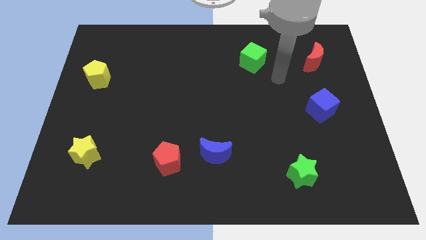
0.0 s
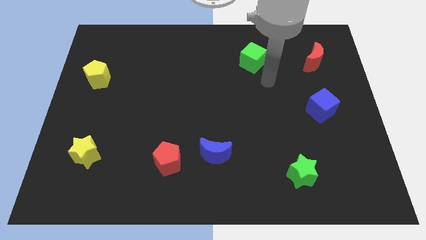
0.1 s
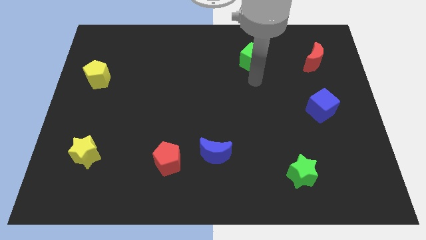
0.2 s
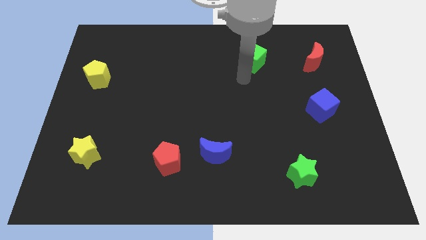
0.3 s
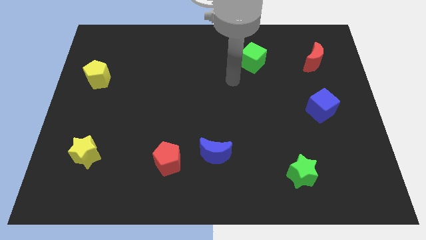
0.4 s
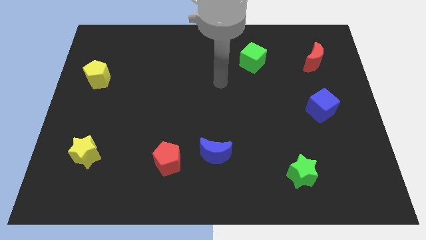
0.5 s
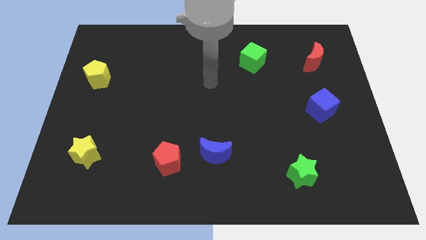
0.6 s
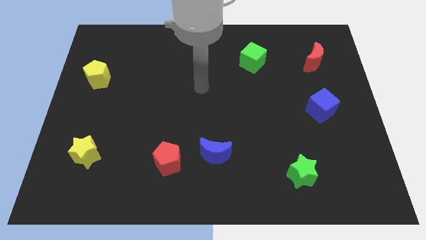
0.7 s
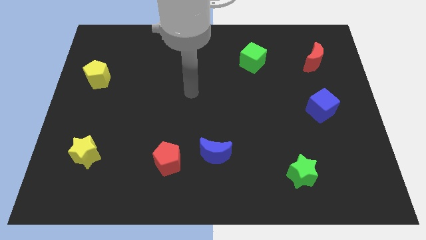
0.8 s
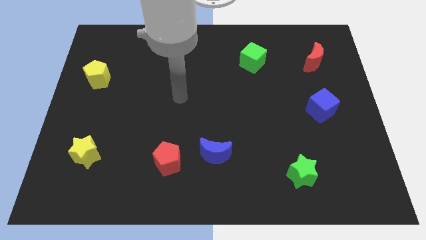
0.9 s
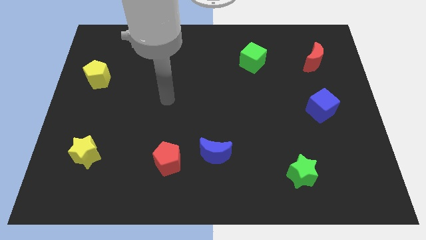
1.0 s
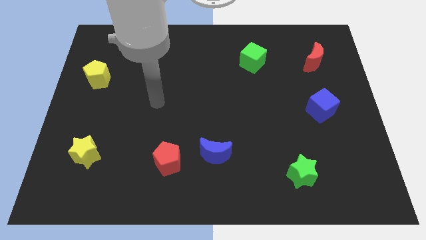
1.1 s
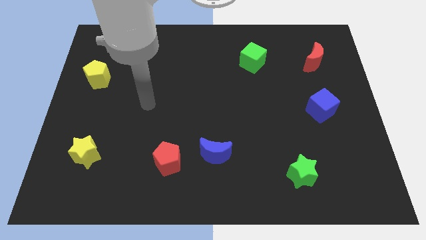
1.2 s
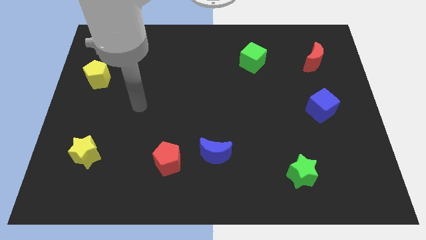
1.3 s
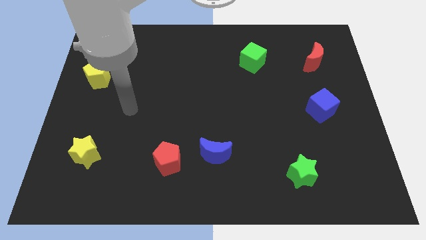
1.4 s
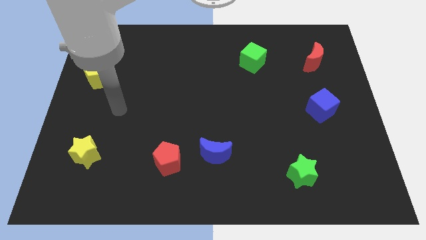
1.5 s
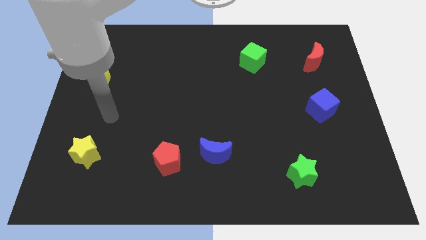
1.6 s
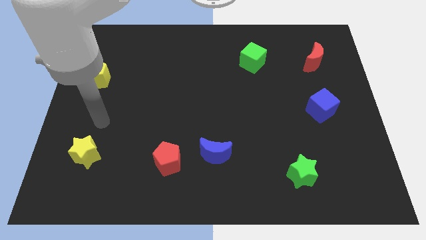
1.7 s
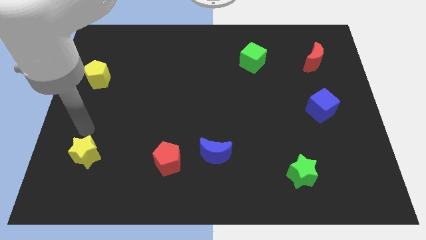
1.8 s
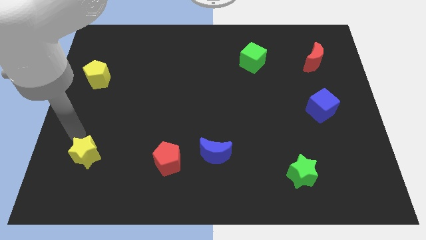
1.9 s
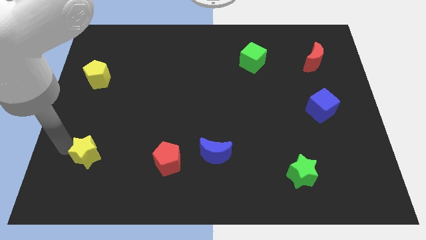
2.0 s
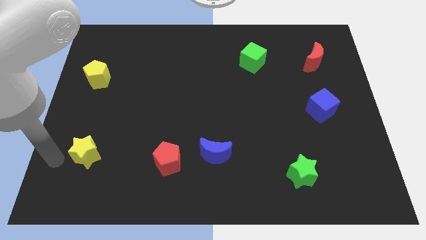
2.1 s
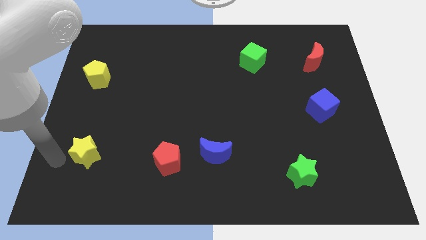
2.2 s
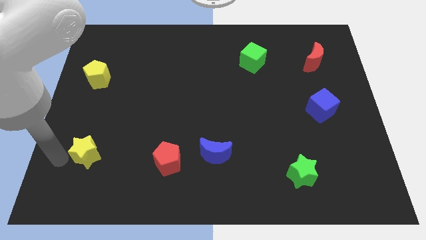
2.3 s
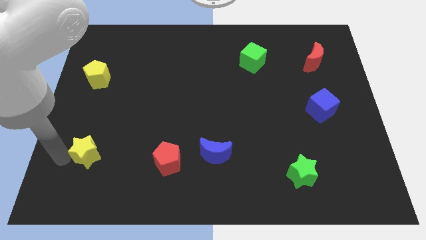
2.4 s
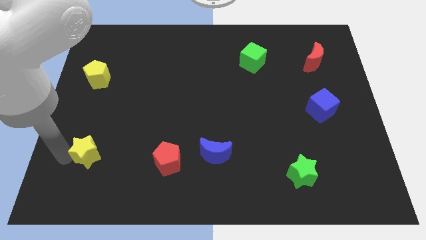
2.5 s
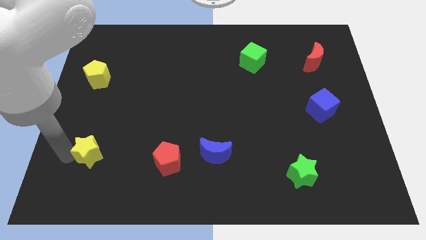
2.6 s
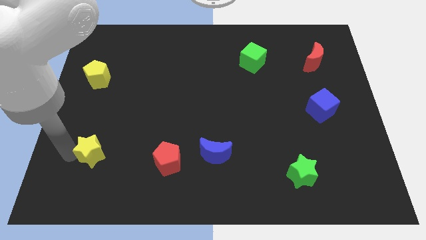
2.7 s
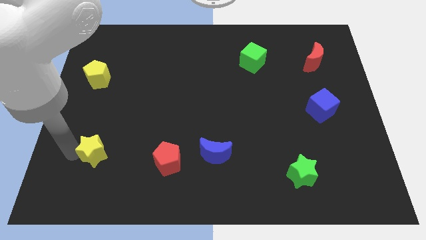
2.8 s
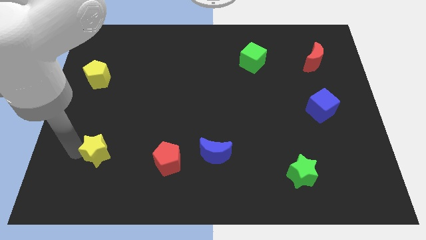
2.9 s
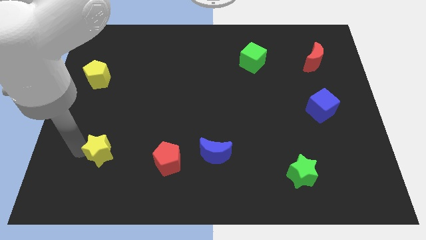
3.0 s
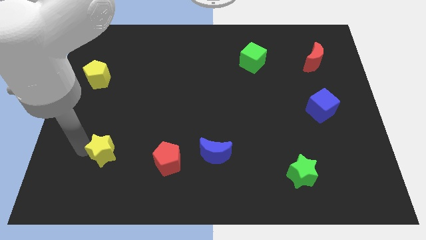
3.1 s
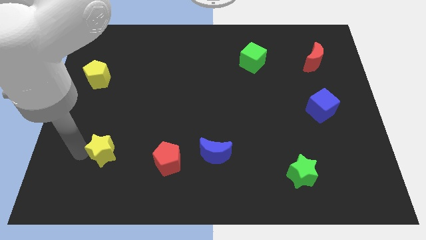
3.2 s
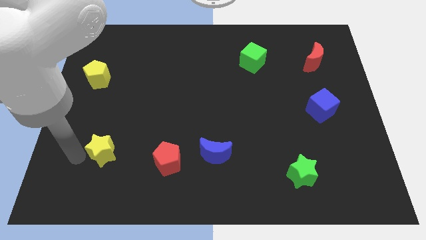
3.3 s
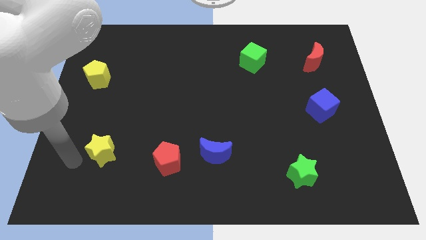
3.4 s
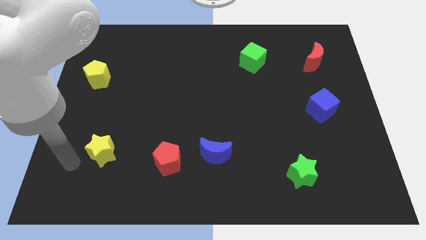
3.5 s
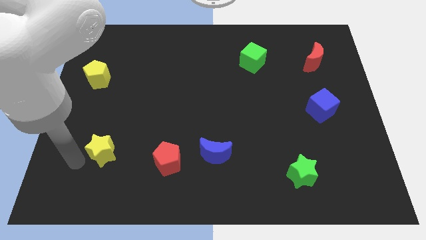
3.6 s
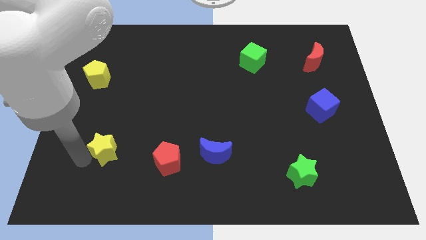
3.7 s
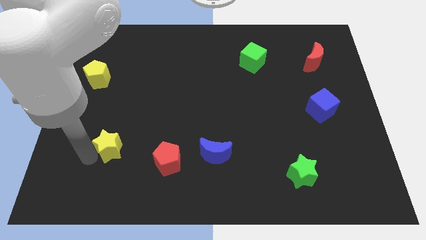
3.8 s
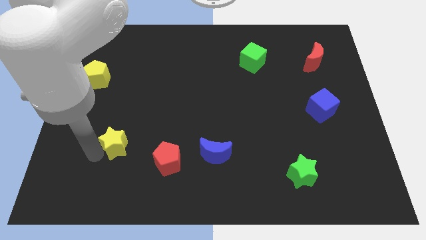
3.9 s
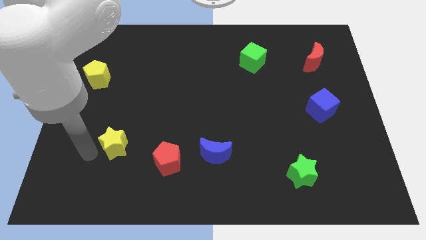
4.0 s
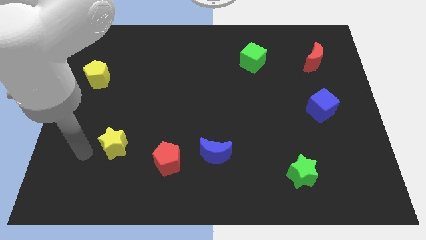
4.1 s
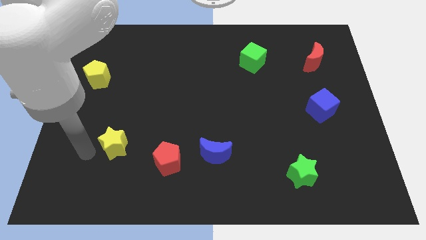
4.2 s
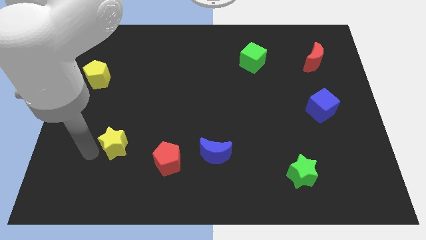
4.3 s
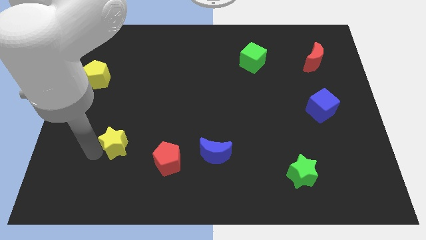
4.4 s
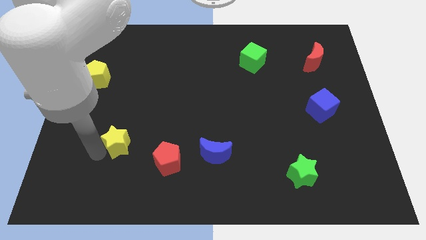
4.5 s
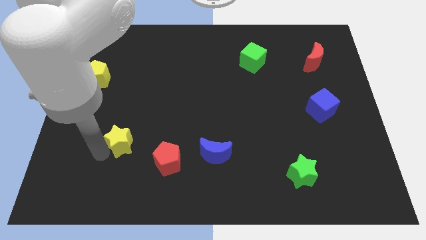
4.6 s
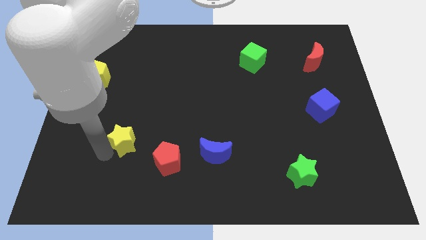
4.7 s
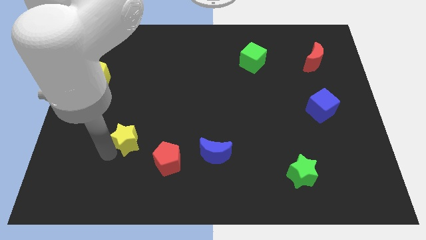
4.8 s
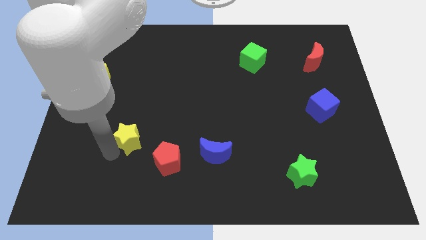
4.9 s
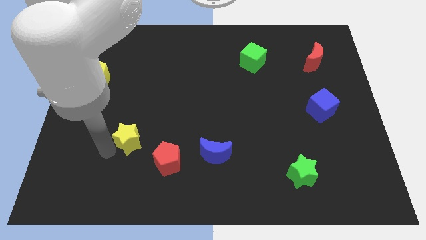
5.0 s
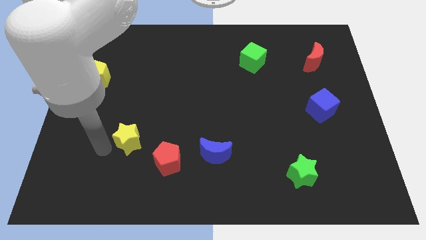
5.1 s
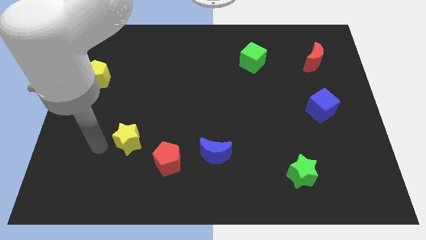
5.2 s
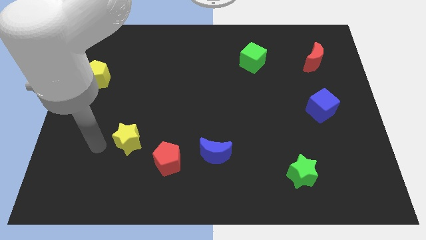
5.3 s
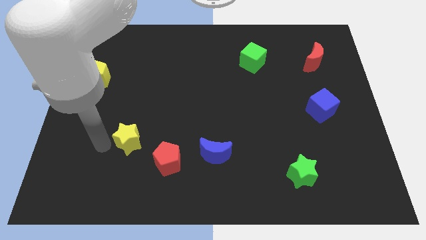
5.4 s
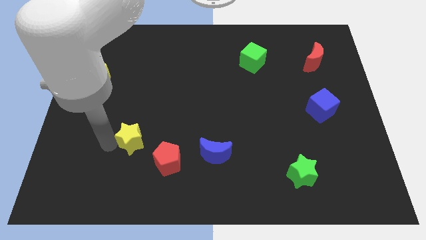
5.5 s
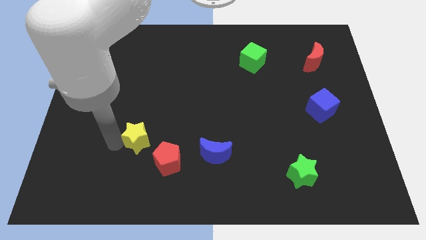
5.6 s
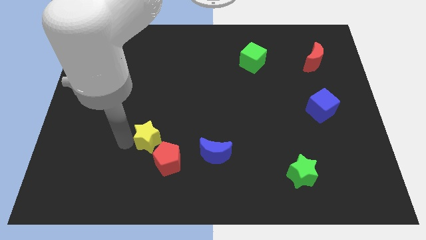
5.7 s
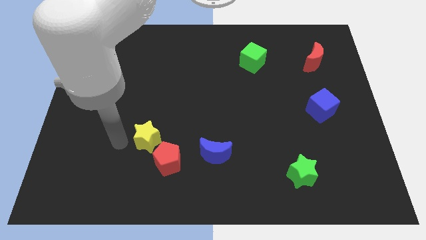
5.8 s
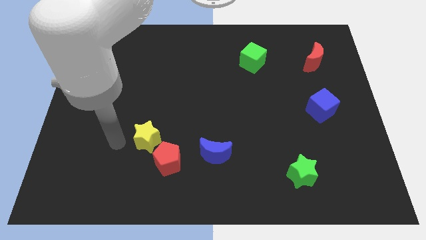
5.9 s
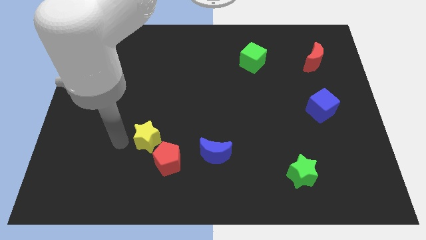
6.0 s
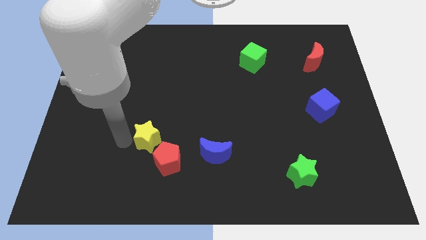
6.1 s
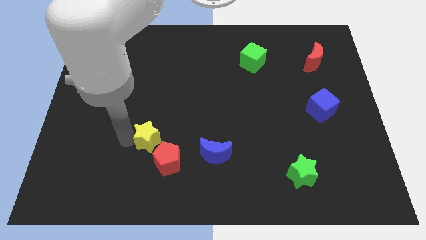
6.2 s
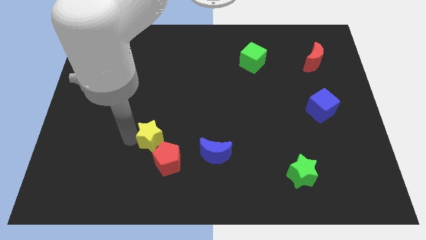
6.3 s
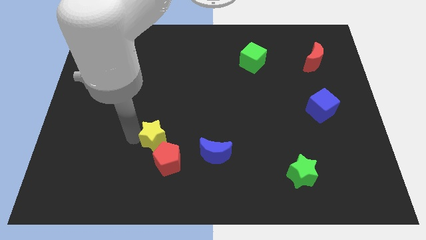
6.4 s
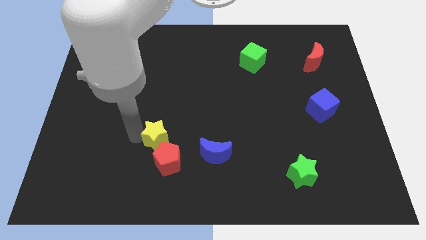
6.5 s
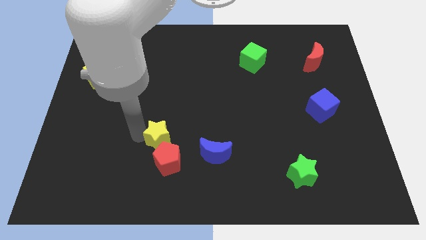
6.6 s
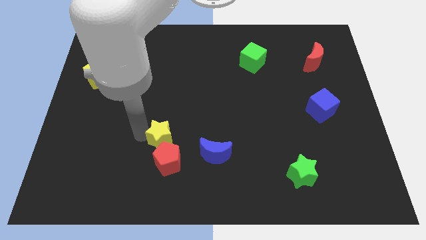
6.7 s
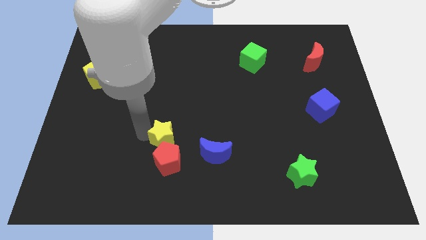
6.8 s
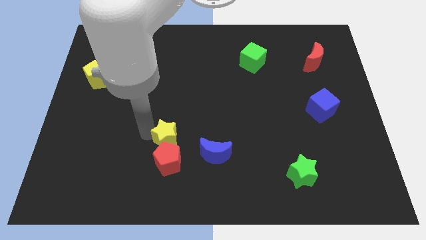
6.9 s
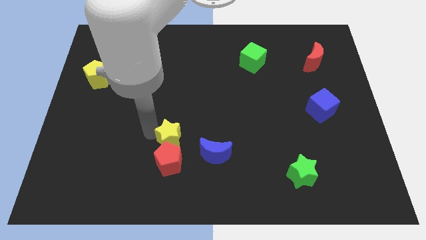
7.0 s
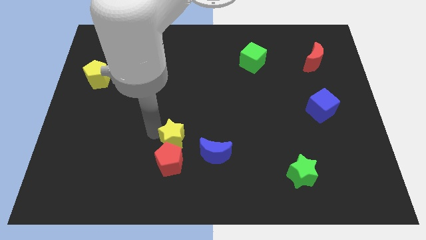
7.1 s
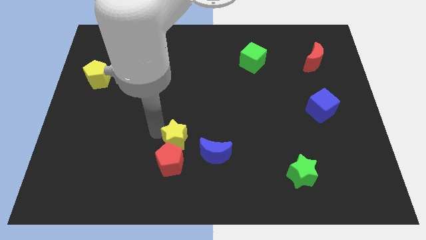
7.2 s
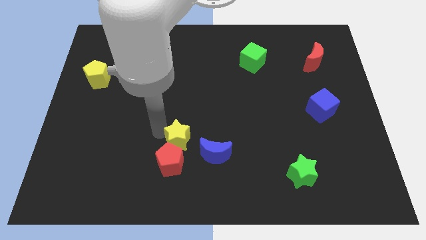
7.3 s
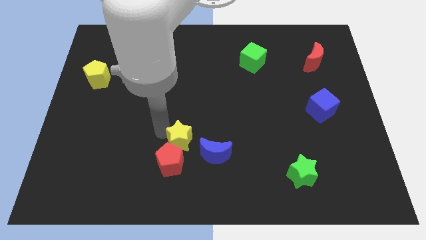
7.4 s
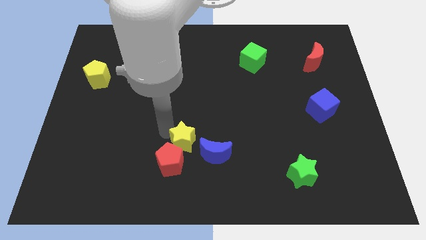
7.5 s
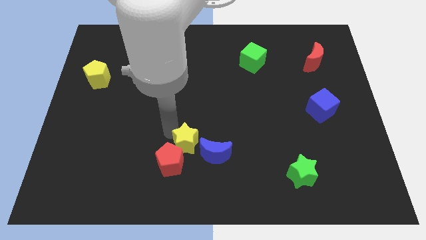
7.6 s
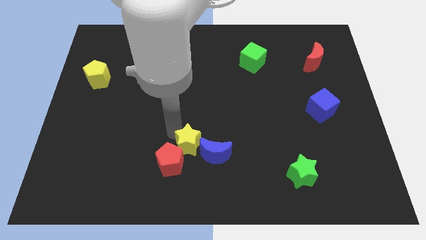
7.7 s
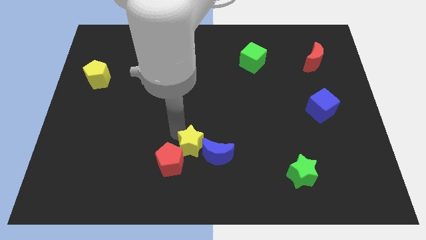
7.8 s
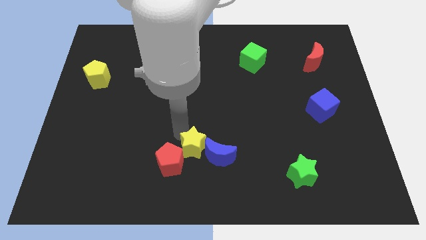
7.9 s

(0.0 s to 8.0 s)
push the yellow star close to the blue moon

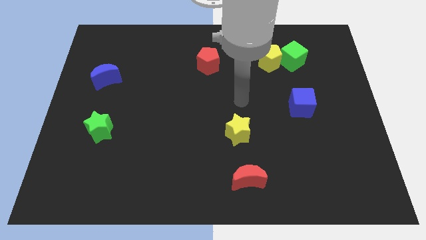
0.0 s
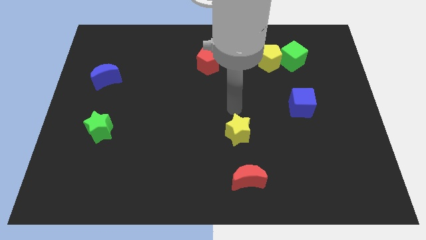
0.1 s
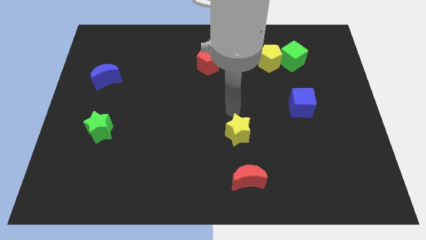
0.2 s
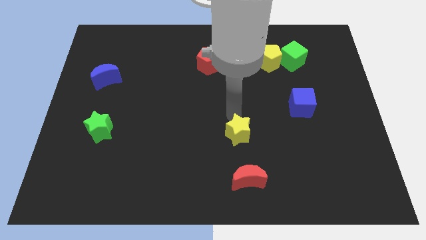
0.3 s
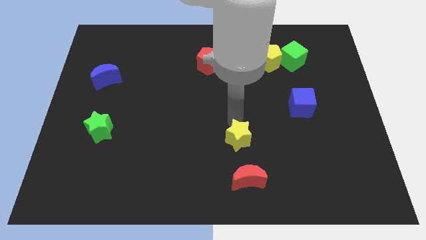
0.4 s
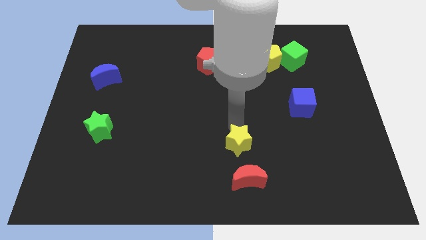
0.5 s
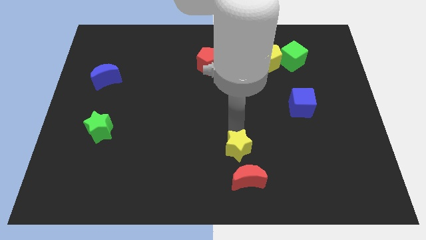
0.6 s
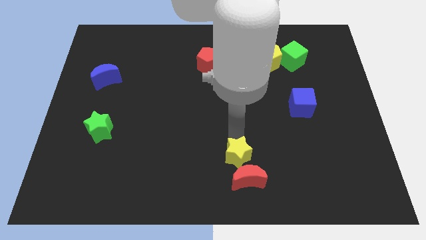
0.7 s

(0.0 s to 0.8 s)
put the yellow star next to the red moon
